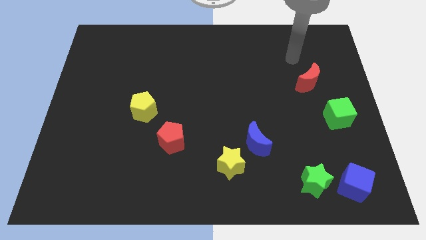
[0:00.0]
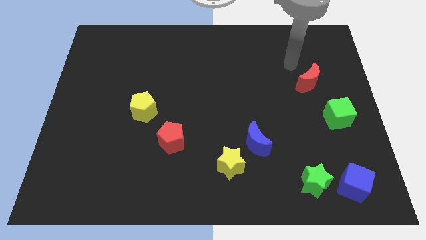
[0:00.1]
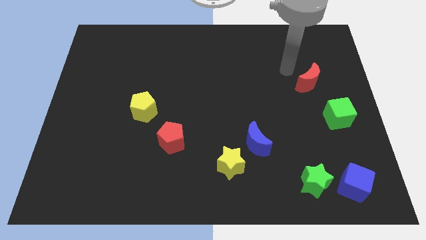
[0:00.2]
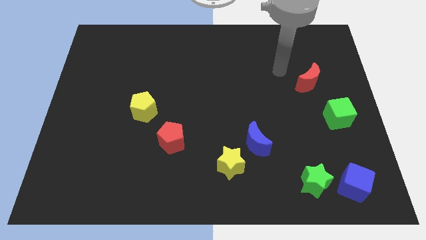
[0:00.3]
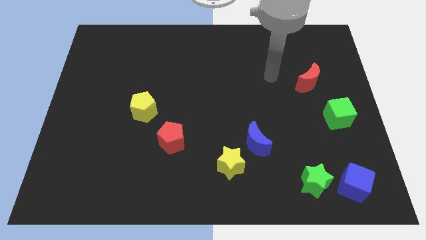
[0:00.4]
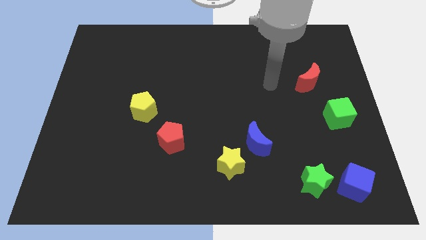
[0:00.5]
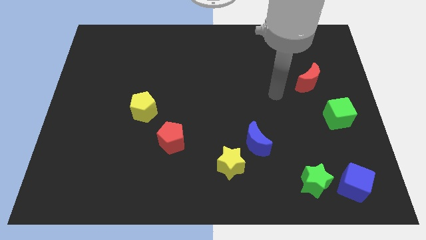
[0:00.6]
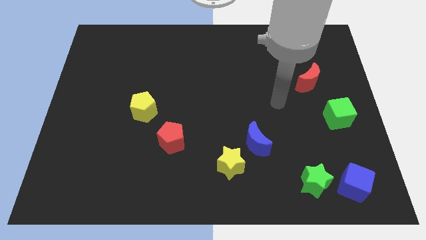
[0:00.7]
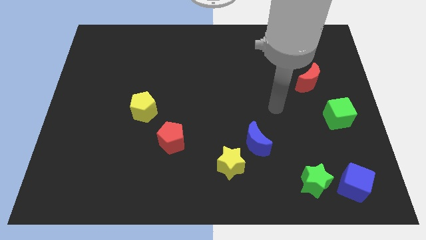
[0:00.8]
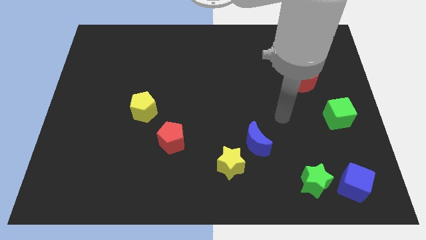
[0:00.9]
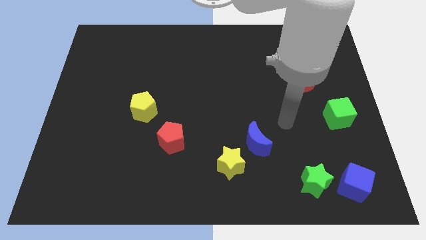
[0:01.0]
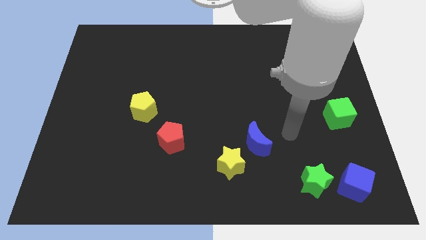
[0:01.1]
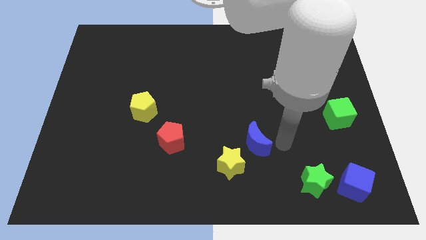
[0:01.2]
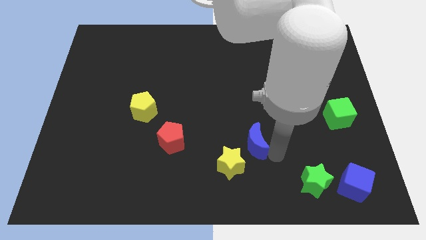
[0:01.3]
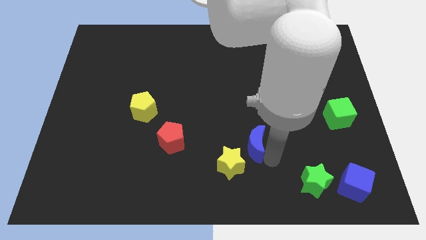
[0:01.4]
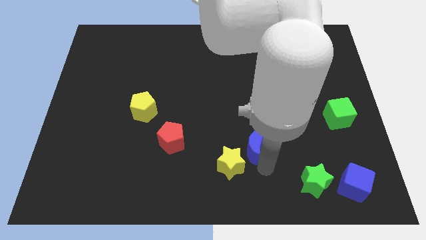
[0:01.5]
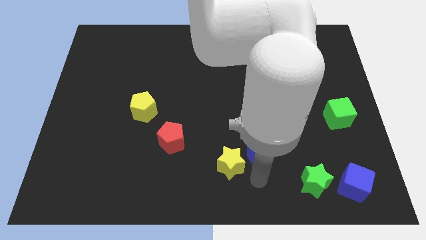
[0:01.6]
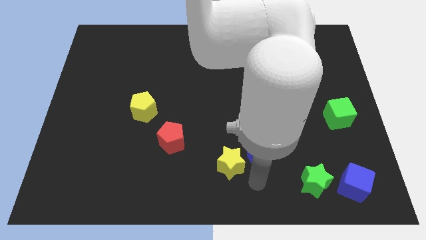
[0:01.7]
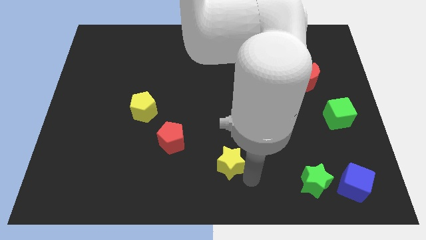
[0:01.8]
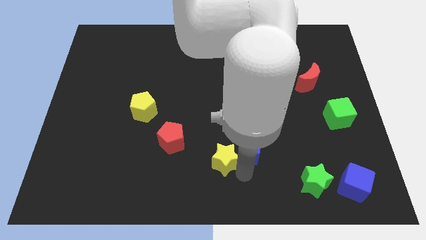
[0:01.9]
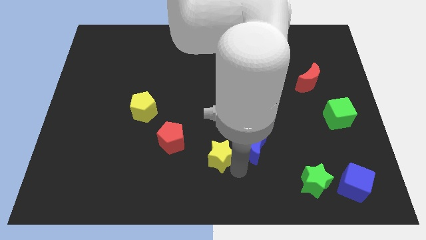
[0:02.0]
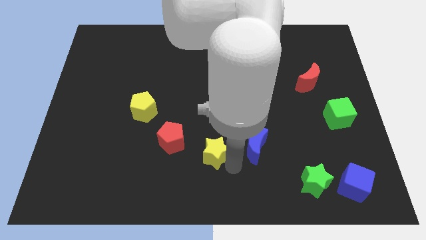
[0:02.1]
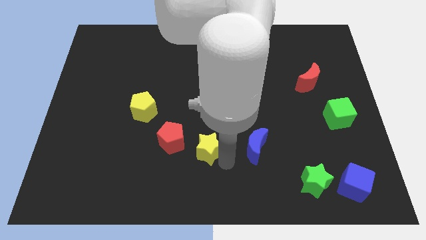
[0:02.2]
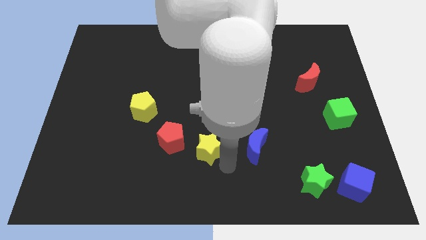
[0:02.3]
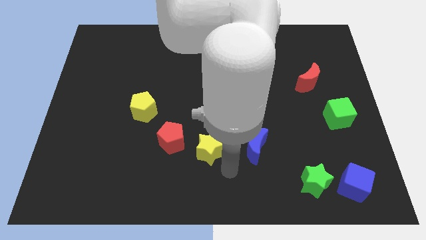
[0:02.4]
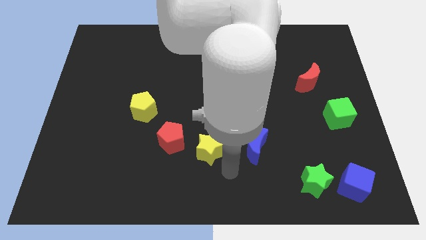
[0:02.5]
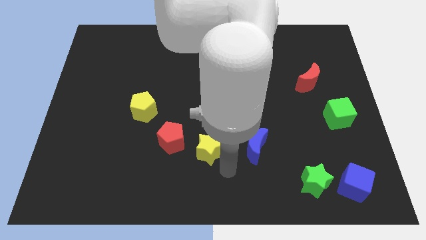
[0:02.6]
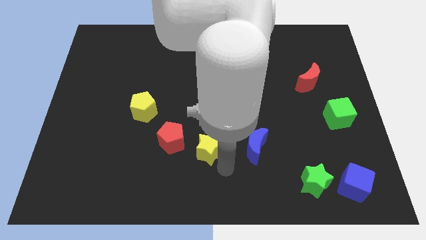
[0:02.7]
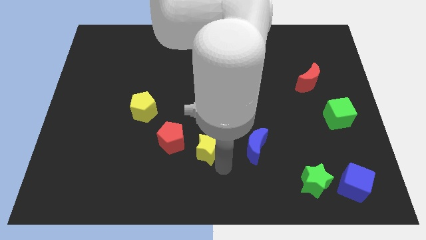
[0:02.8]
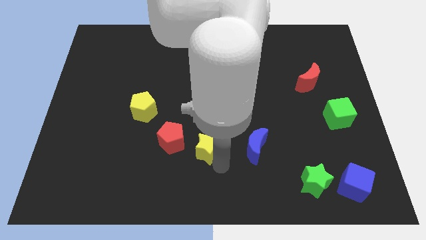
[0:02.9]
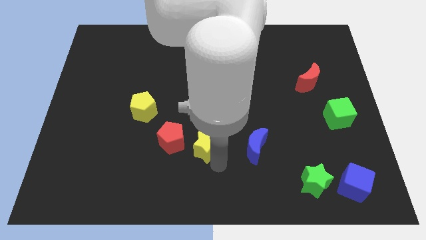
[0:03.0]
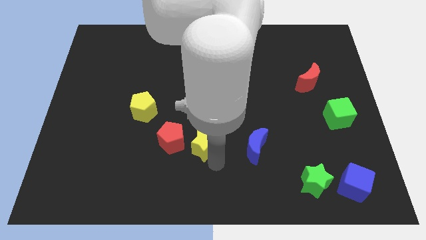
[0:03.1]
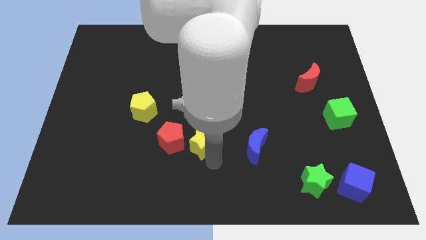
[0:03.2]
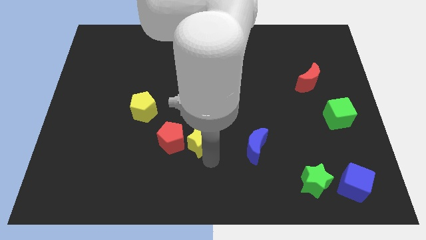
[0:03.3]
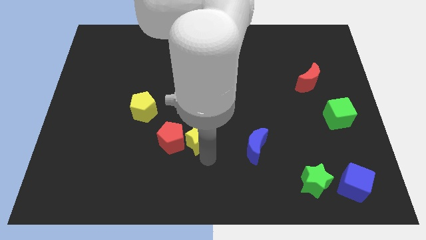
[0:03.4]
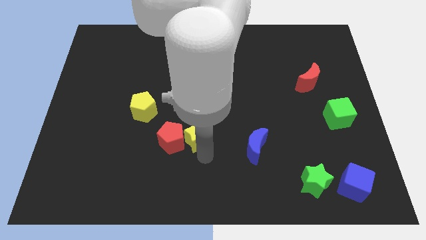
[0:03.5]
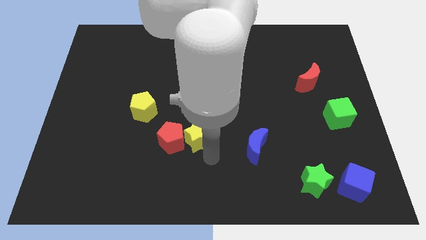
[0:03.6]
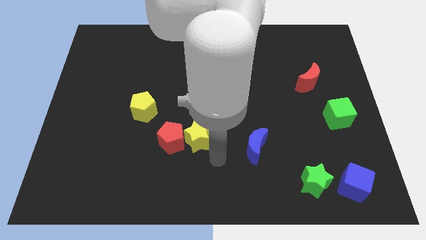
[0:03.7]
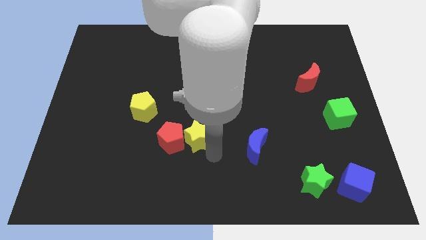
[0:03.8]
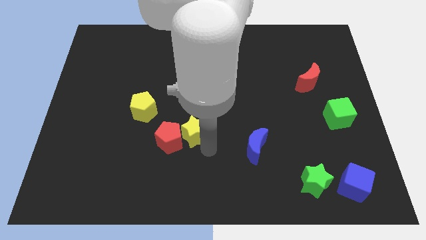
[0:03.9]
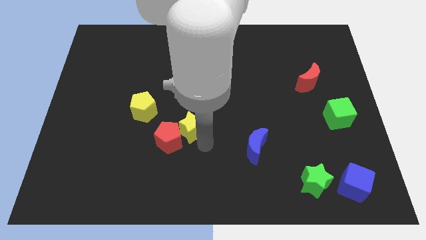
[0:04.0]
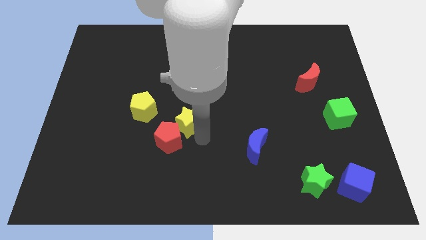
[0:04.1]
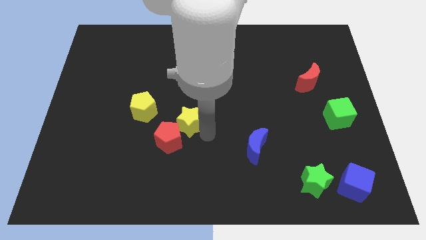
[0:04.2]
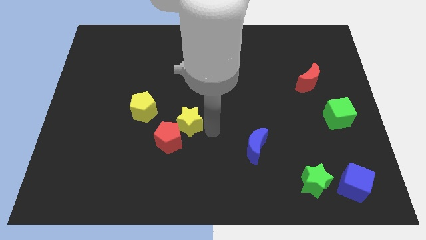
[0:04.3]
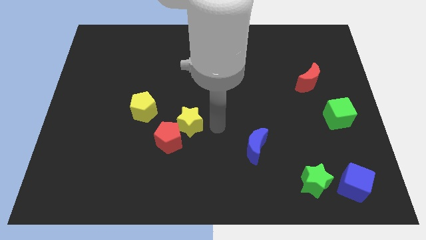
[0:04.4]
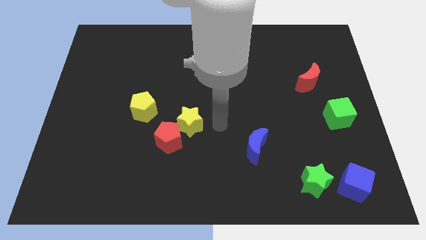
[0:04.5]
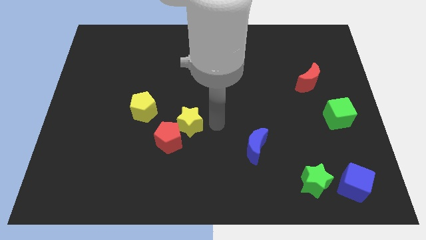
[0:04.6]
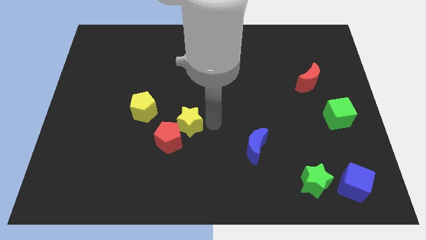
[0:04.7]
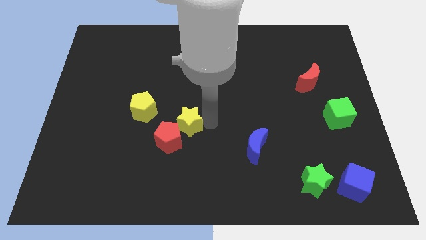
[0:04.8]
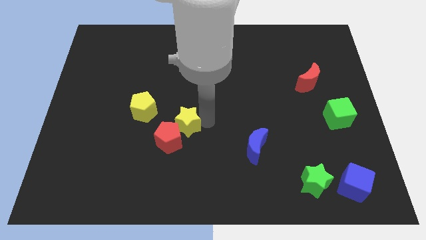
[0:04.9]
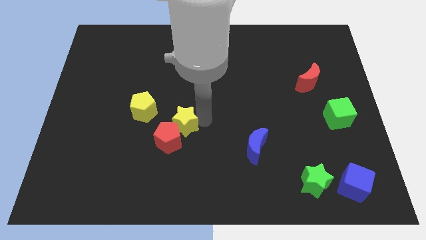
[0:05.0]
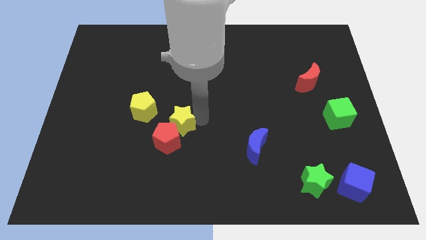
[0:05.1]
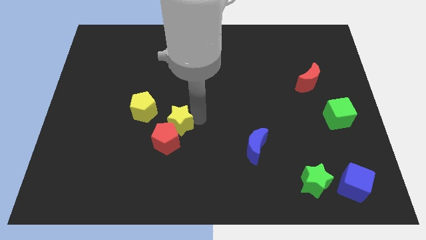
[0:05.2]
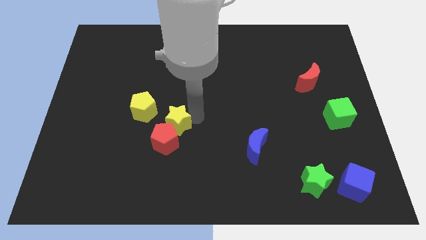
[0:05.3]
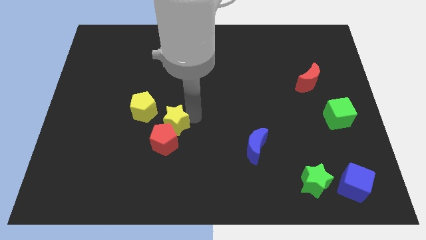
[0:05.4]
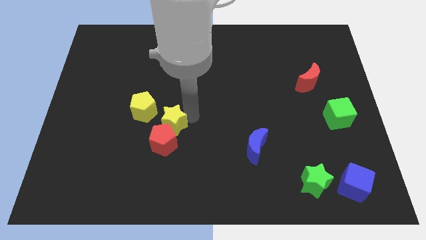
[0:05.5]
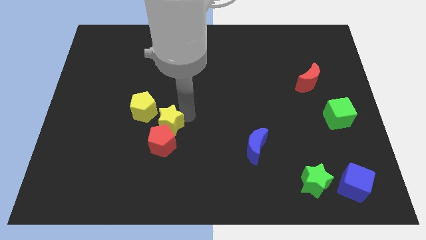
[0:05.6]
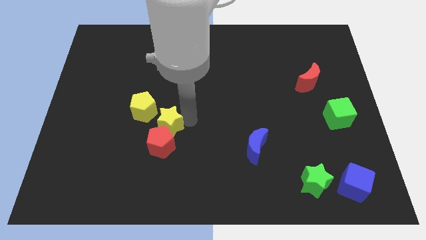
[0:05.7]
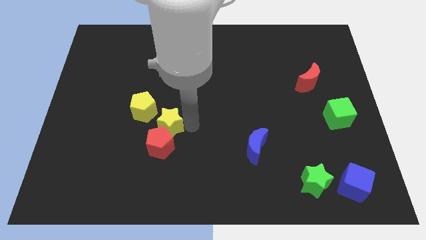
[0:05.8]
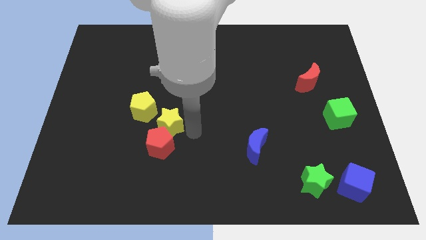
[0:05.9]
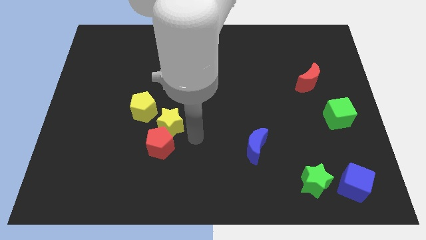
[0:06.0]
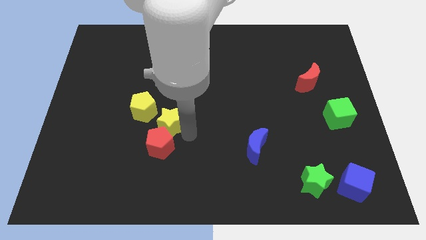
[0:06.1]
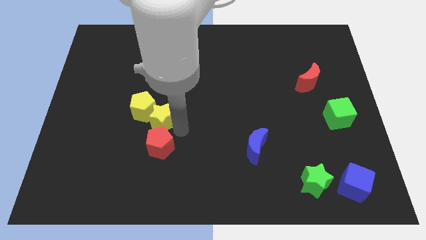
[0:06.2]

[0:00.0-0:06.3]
push the yellow star next to the yellow pentagon

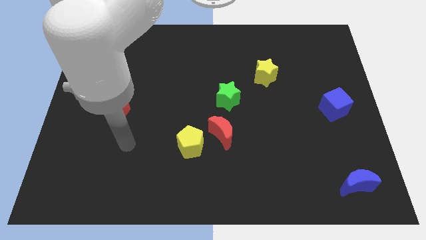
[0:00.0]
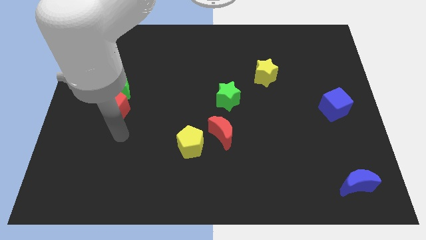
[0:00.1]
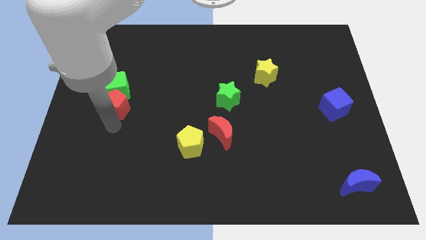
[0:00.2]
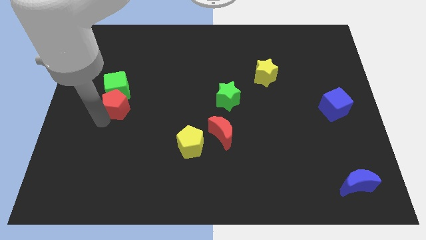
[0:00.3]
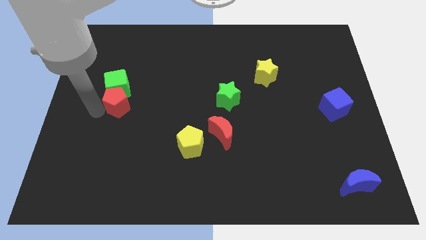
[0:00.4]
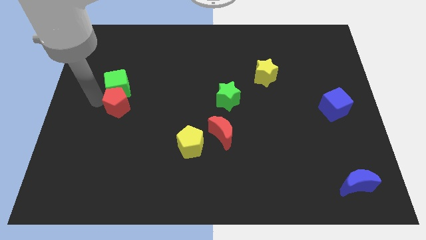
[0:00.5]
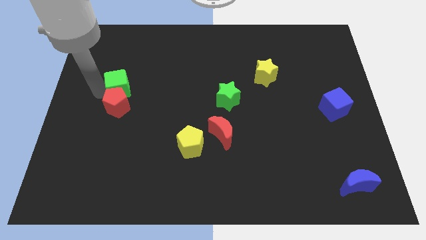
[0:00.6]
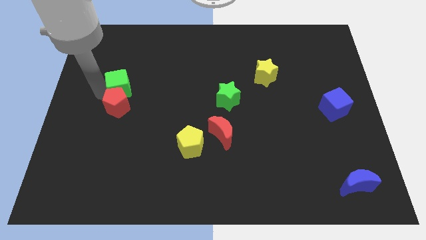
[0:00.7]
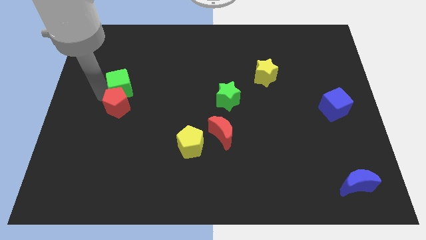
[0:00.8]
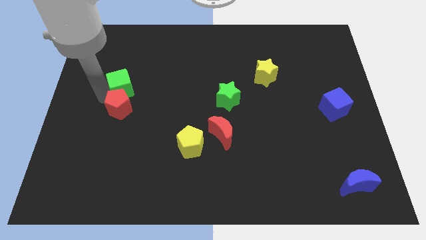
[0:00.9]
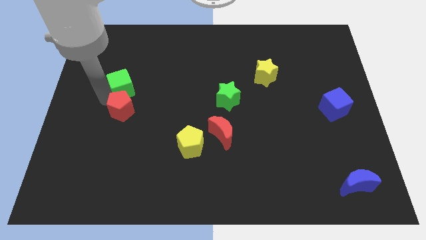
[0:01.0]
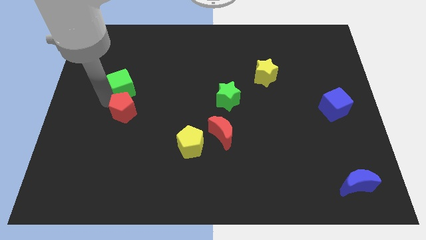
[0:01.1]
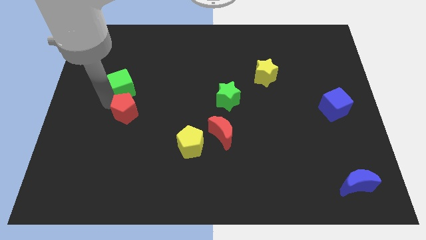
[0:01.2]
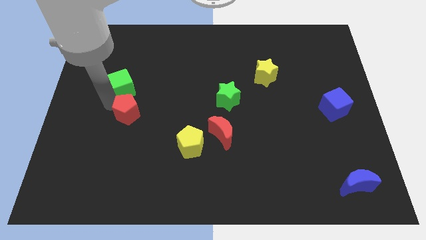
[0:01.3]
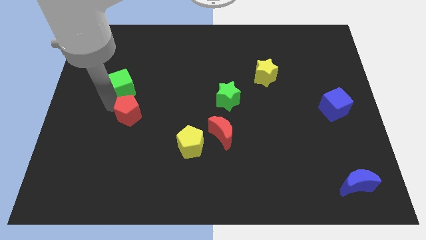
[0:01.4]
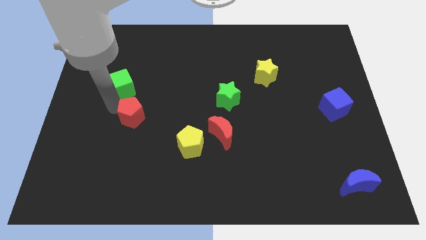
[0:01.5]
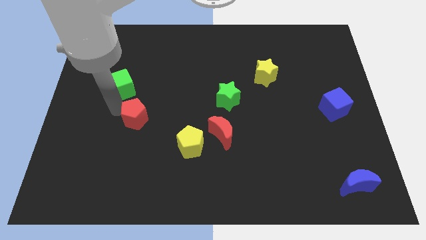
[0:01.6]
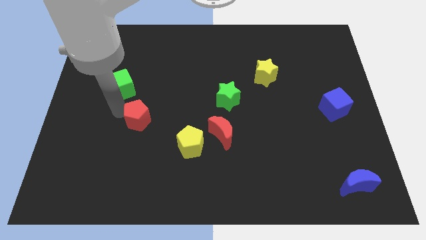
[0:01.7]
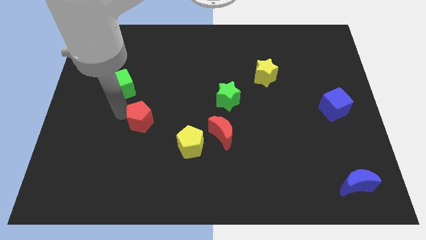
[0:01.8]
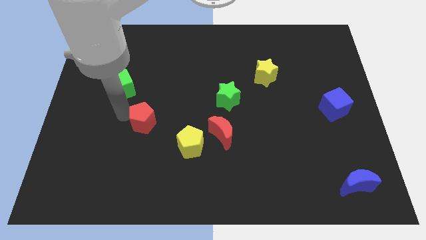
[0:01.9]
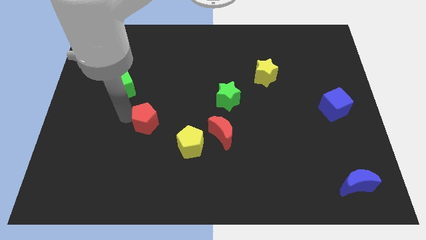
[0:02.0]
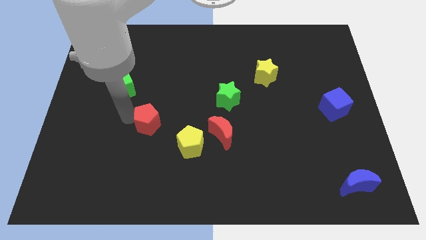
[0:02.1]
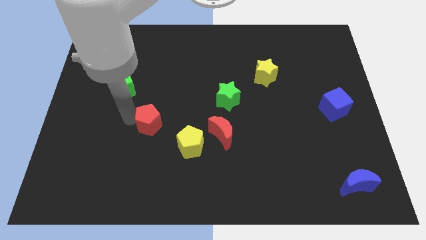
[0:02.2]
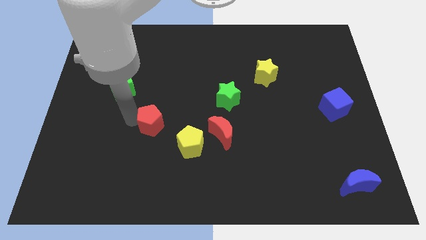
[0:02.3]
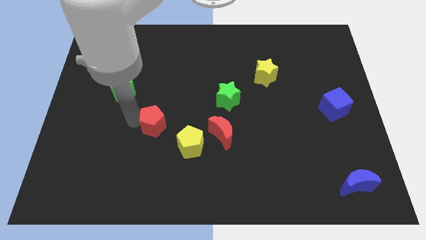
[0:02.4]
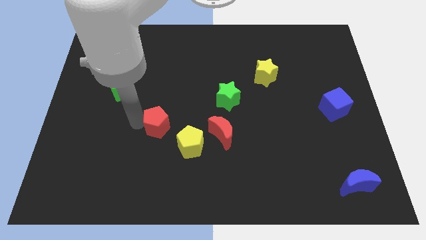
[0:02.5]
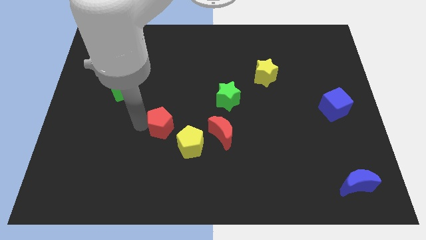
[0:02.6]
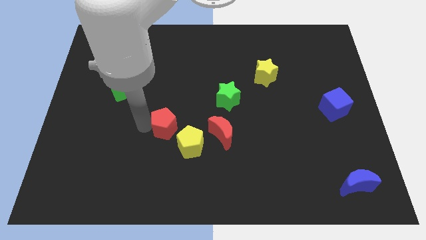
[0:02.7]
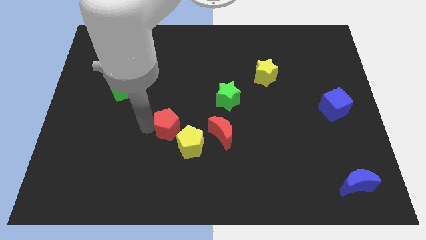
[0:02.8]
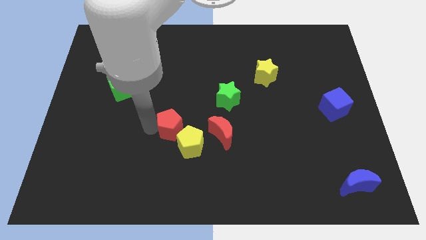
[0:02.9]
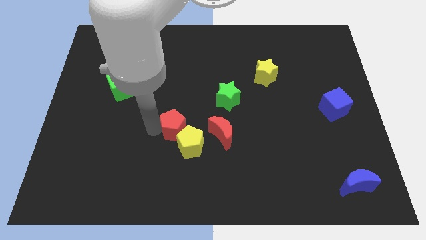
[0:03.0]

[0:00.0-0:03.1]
slide the red pentagon to the yellow pentagon
